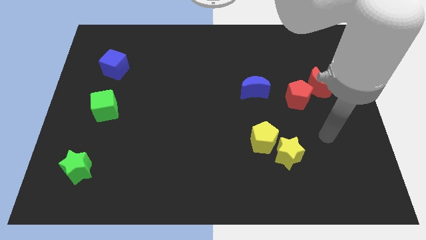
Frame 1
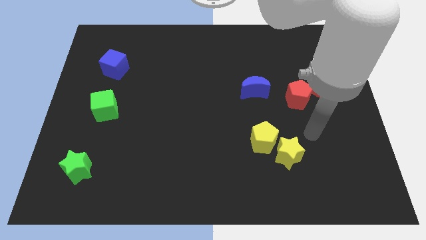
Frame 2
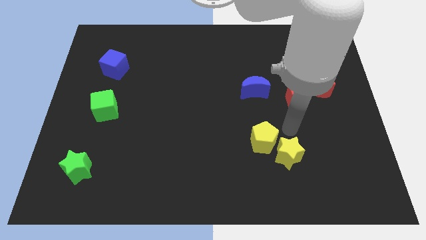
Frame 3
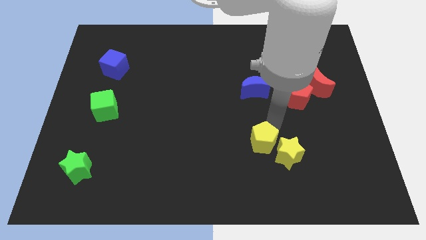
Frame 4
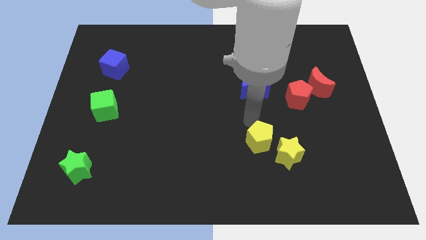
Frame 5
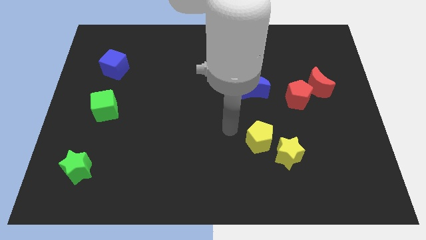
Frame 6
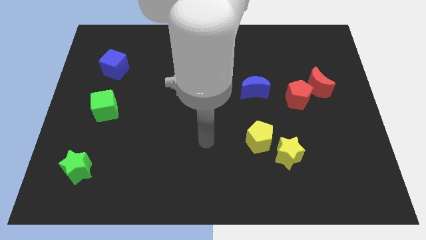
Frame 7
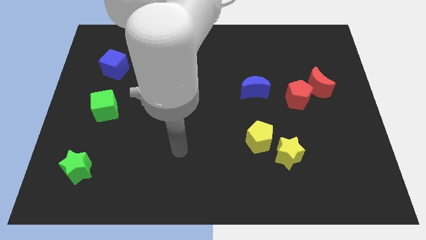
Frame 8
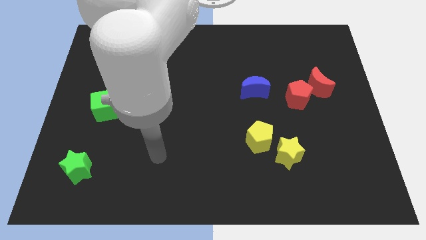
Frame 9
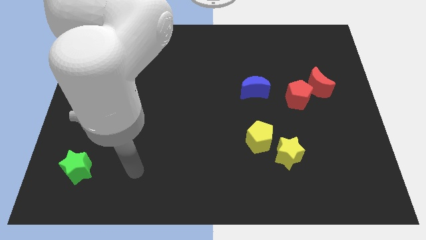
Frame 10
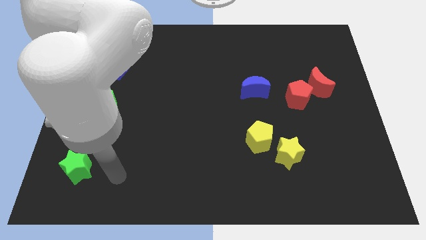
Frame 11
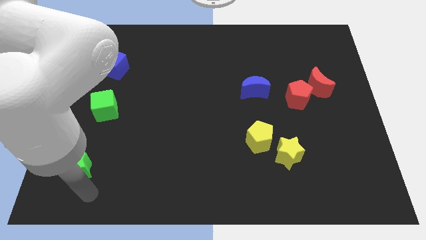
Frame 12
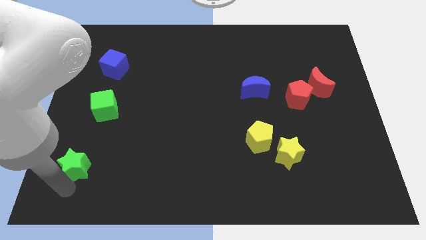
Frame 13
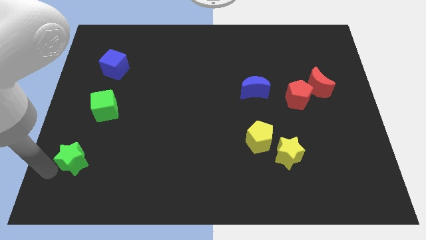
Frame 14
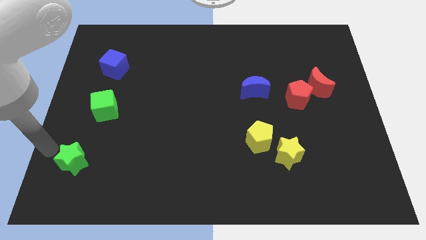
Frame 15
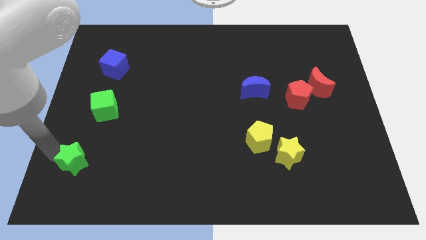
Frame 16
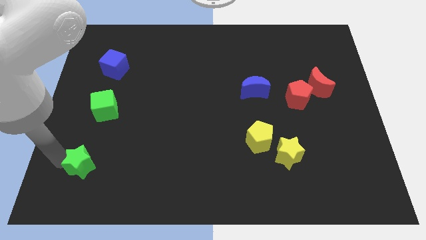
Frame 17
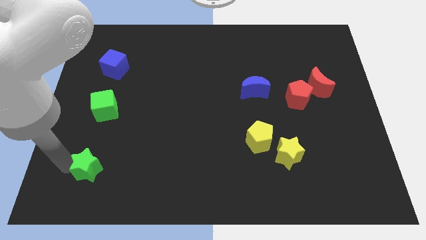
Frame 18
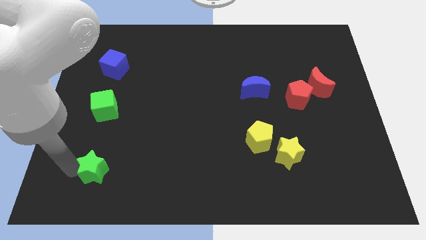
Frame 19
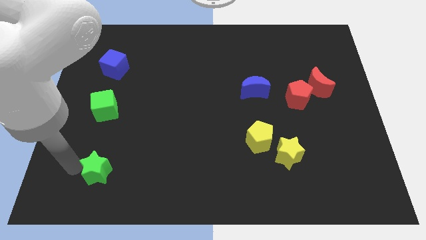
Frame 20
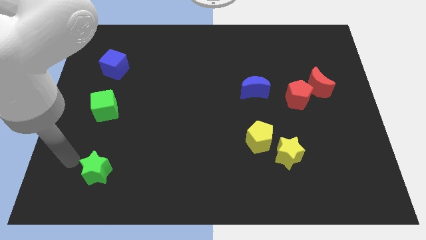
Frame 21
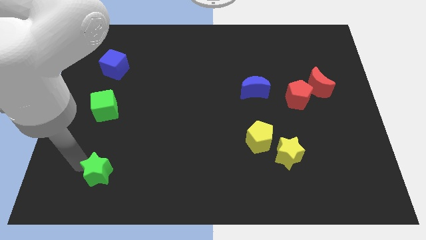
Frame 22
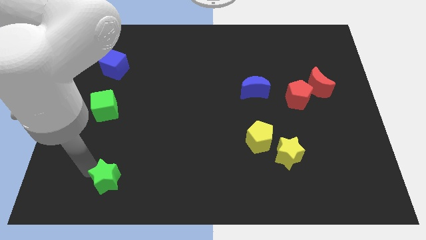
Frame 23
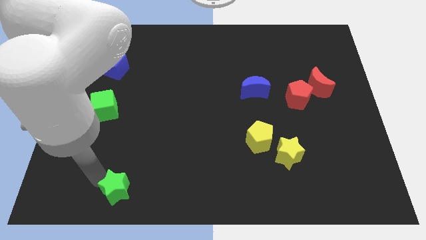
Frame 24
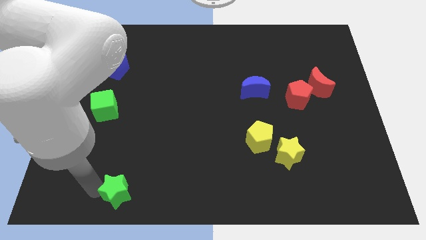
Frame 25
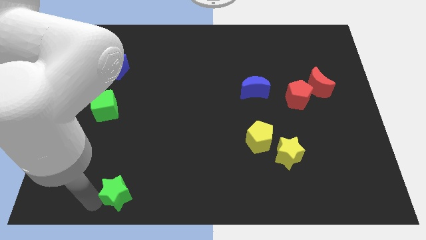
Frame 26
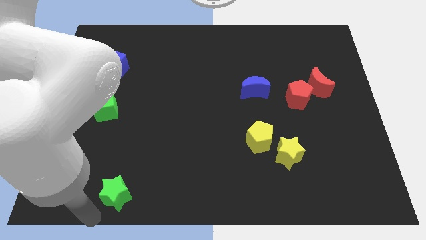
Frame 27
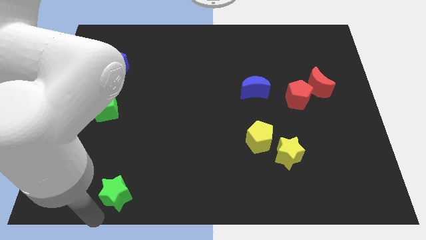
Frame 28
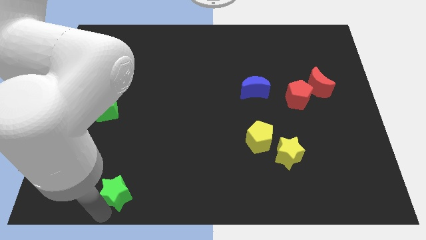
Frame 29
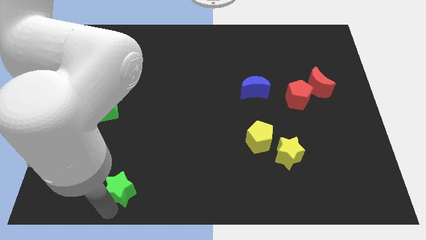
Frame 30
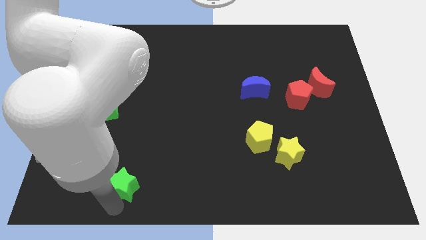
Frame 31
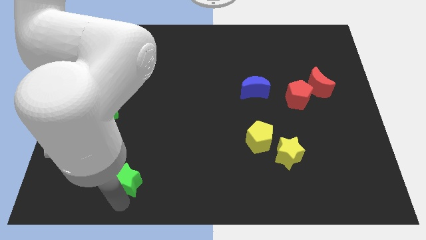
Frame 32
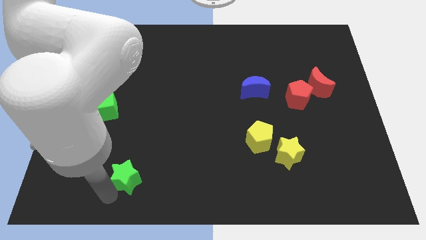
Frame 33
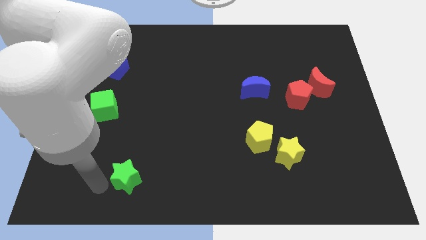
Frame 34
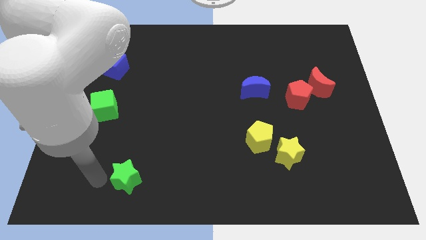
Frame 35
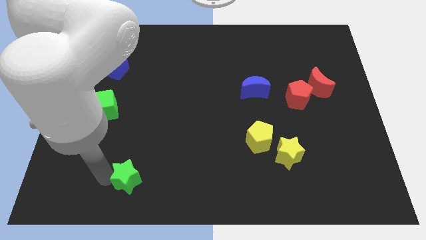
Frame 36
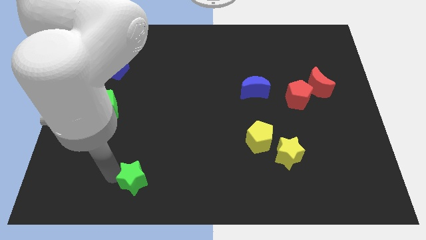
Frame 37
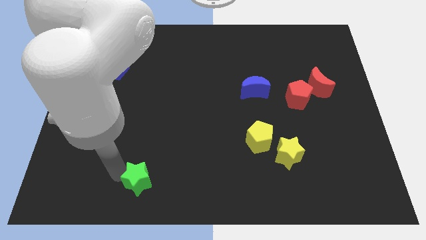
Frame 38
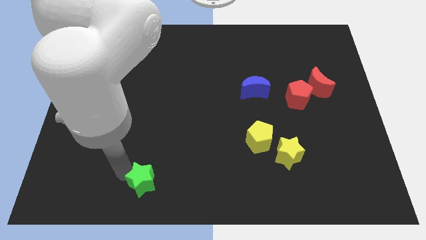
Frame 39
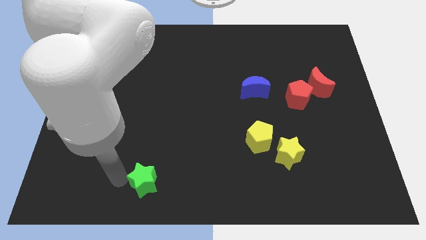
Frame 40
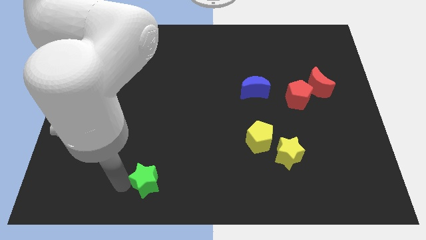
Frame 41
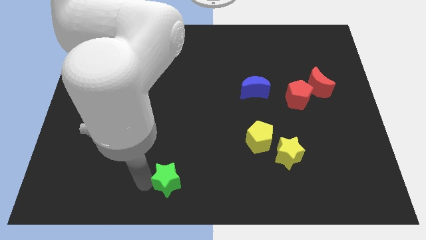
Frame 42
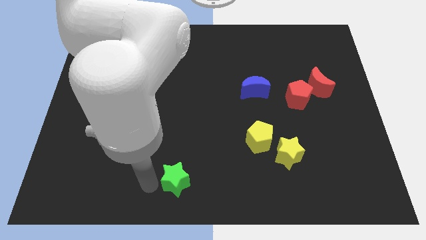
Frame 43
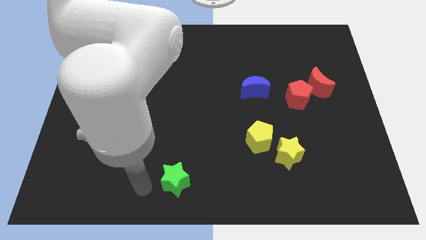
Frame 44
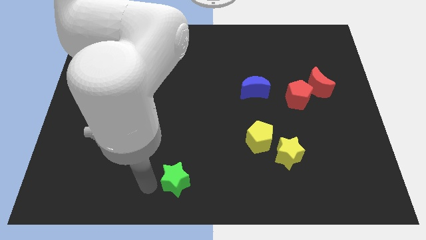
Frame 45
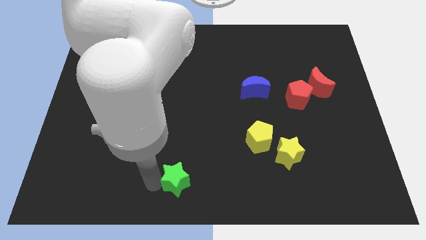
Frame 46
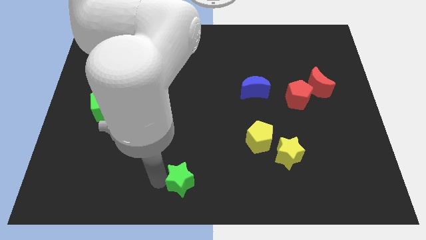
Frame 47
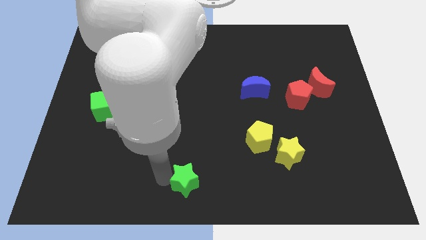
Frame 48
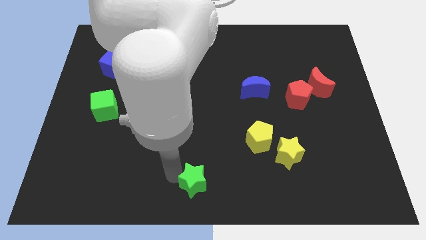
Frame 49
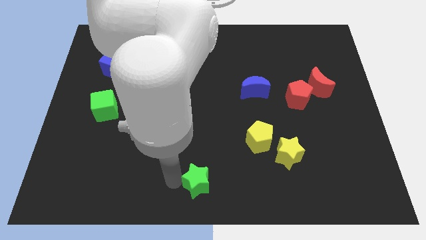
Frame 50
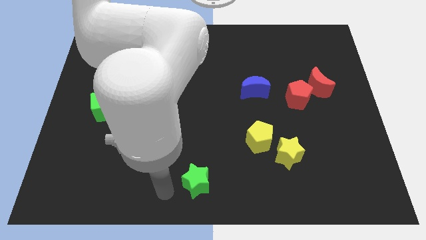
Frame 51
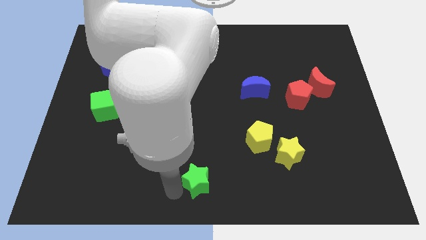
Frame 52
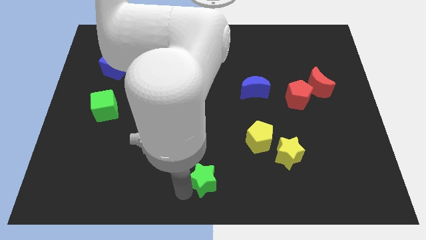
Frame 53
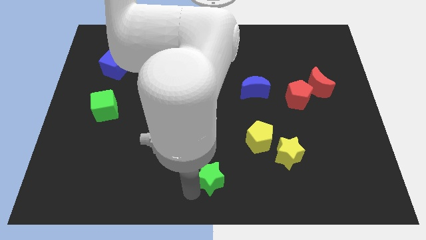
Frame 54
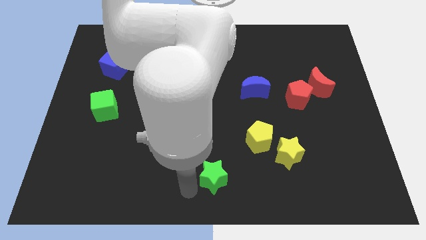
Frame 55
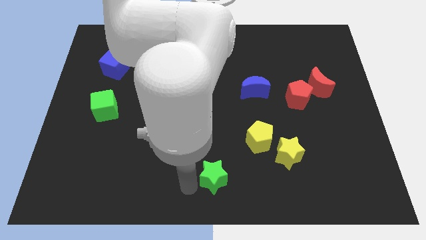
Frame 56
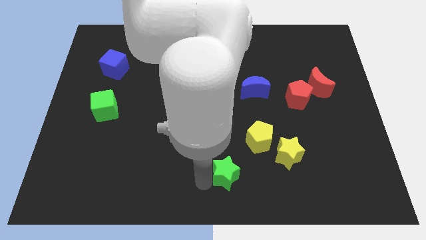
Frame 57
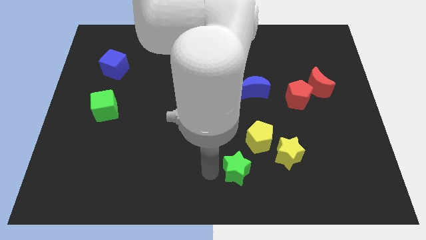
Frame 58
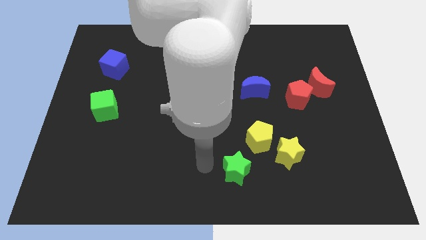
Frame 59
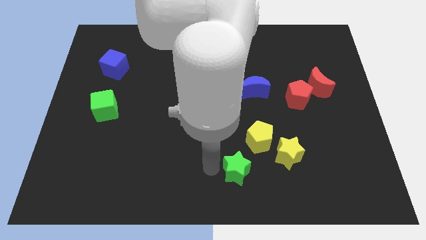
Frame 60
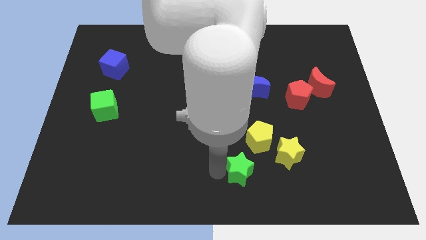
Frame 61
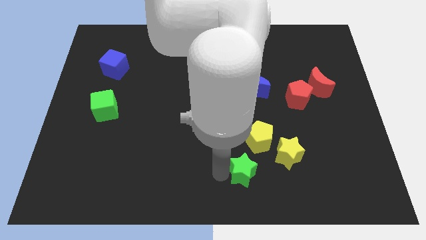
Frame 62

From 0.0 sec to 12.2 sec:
put the green star to the bottom left side of the yellow star
